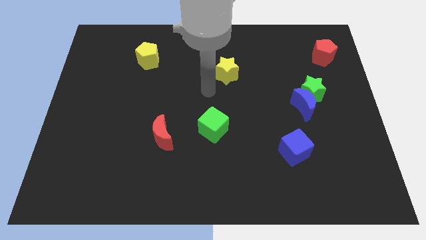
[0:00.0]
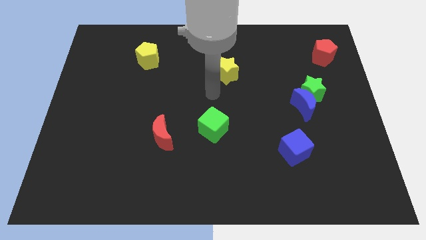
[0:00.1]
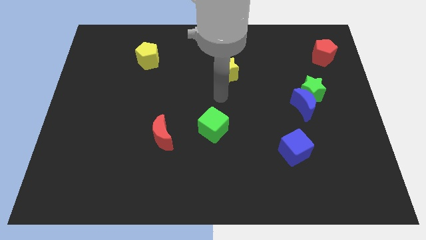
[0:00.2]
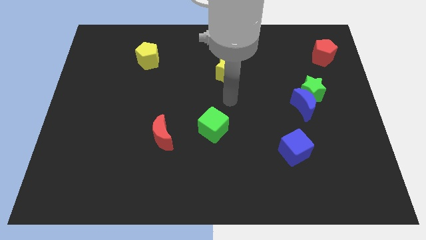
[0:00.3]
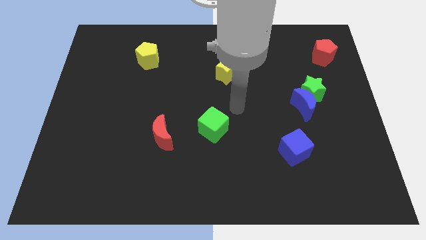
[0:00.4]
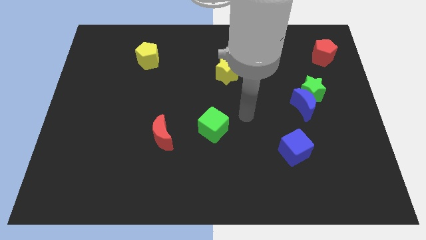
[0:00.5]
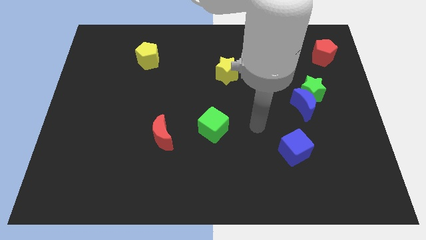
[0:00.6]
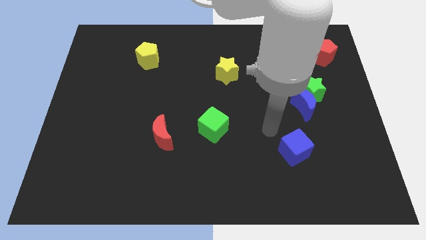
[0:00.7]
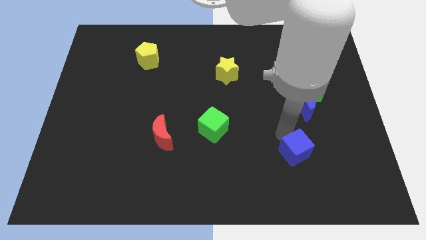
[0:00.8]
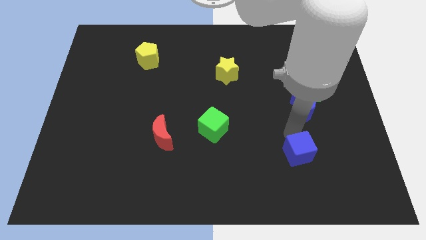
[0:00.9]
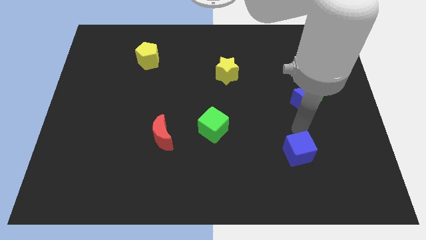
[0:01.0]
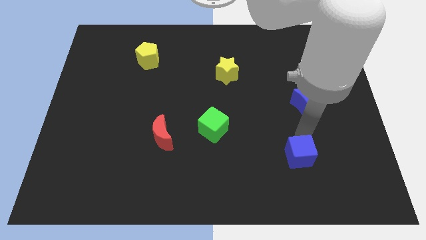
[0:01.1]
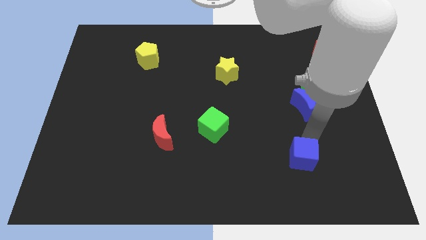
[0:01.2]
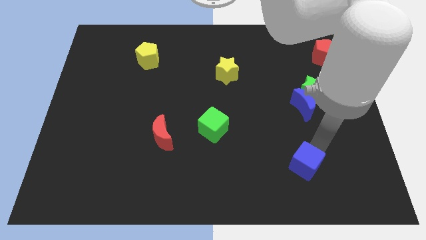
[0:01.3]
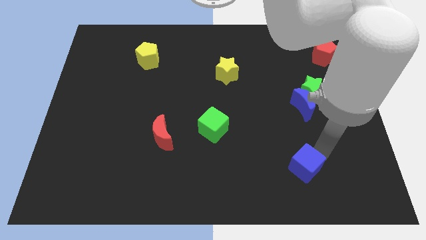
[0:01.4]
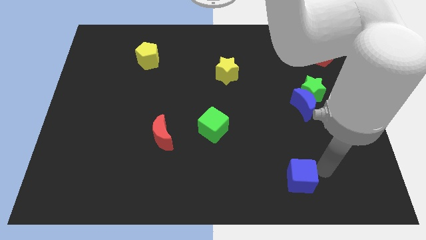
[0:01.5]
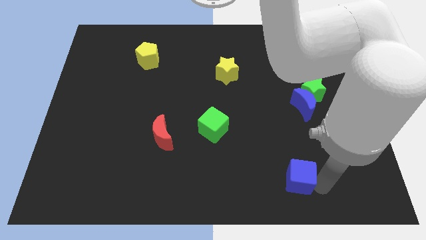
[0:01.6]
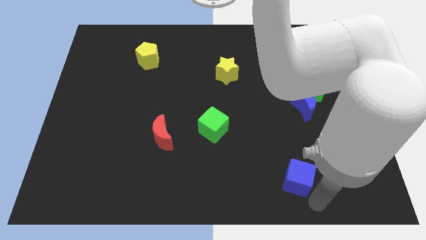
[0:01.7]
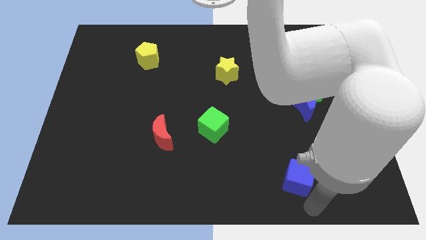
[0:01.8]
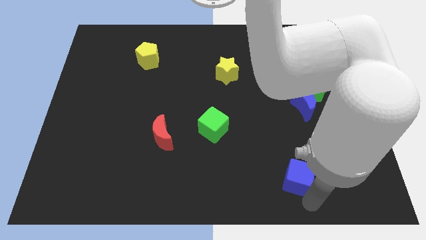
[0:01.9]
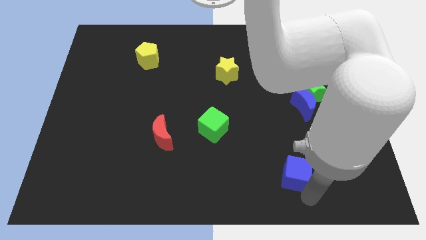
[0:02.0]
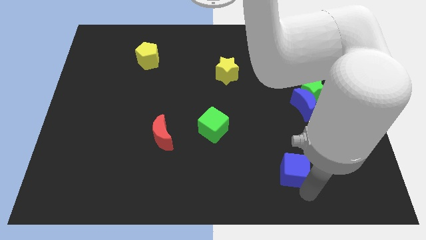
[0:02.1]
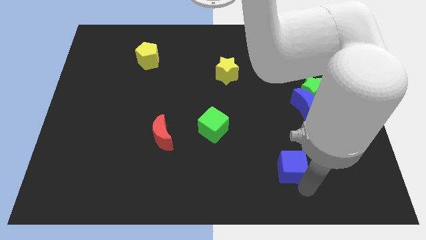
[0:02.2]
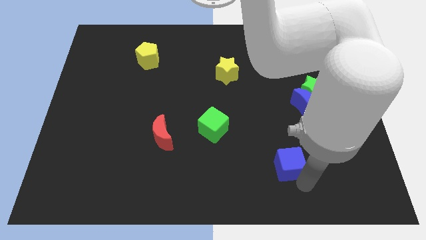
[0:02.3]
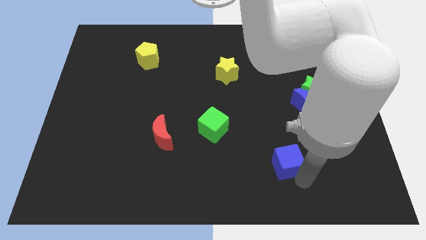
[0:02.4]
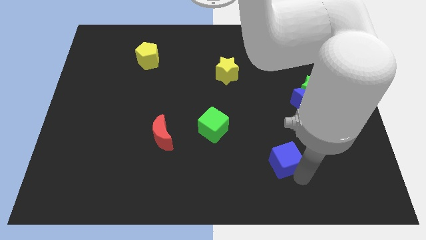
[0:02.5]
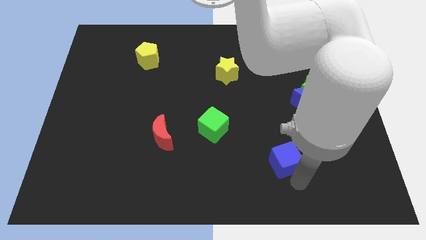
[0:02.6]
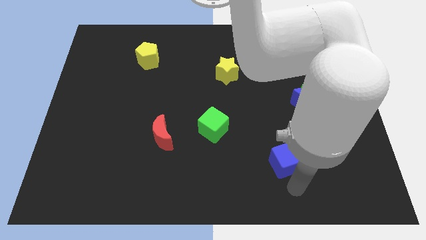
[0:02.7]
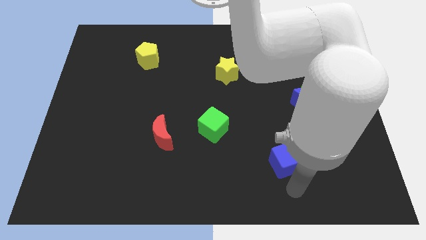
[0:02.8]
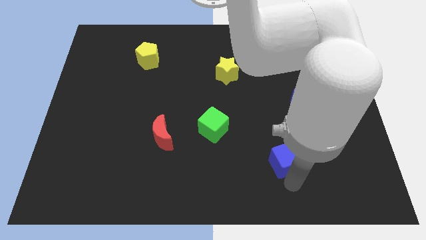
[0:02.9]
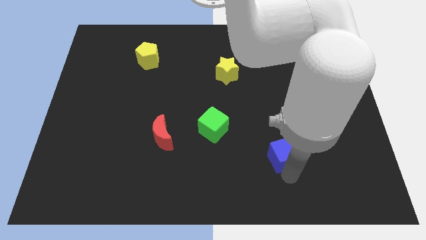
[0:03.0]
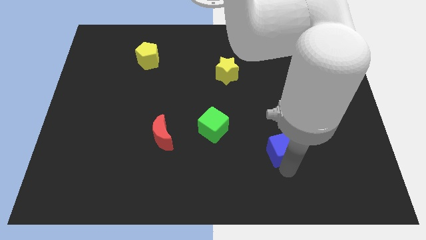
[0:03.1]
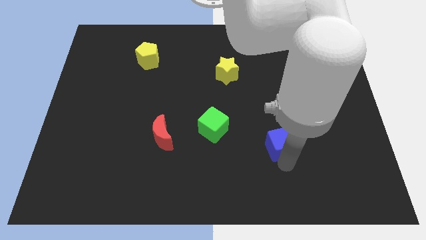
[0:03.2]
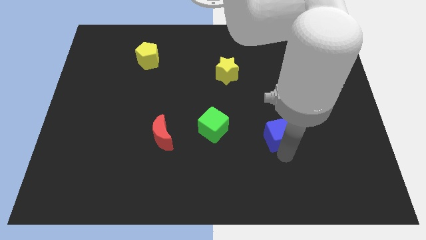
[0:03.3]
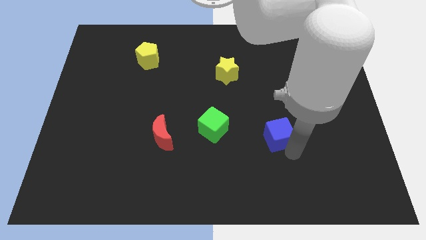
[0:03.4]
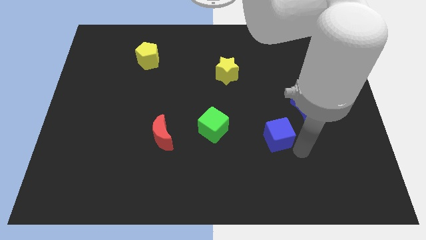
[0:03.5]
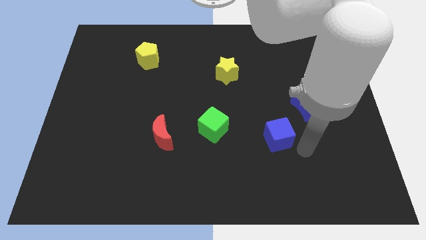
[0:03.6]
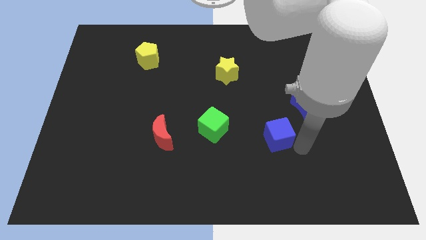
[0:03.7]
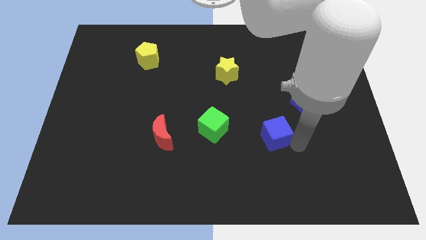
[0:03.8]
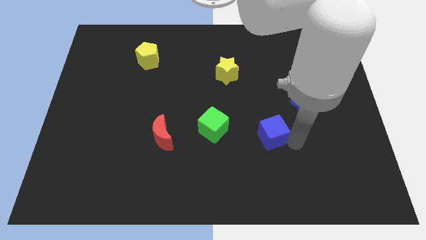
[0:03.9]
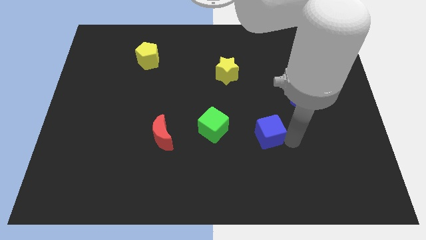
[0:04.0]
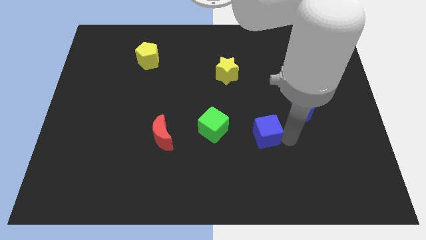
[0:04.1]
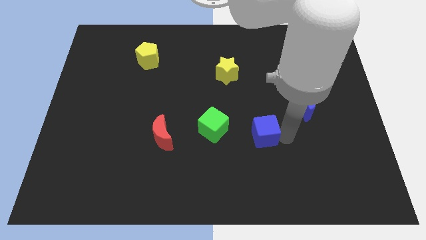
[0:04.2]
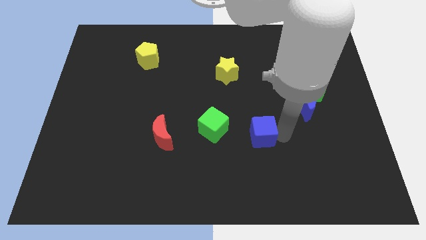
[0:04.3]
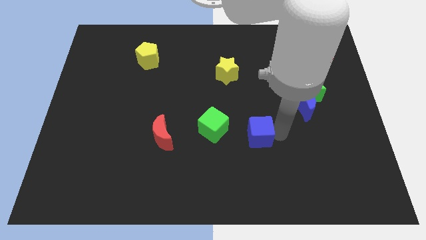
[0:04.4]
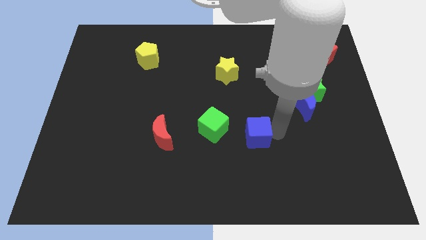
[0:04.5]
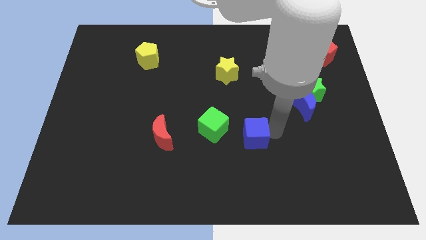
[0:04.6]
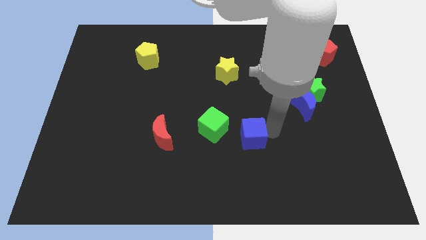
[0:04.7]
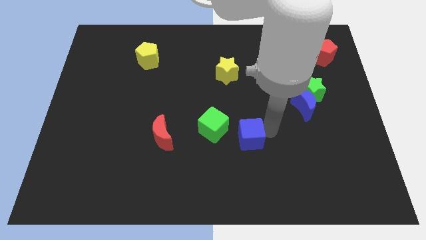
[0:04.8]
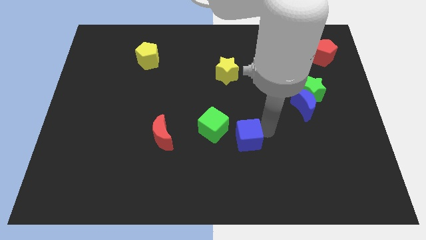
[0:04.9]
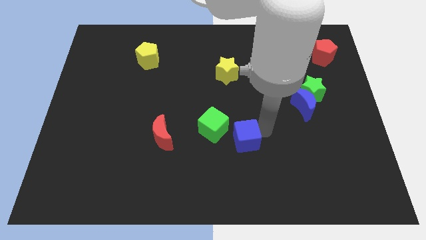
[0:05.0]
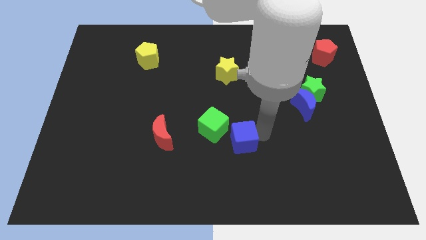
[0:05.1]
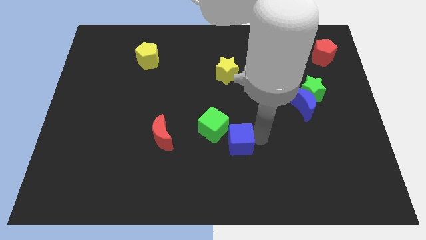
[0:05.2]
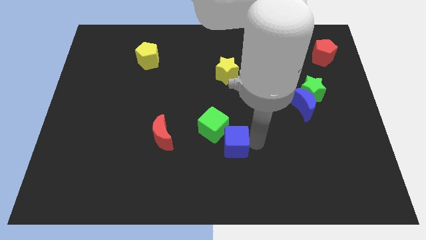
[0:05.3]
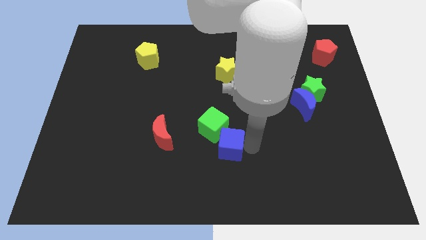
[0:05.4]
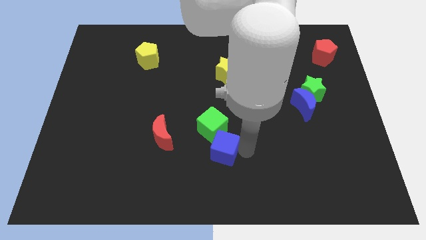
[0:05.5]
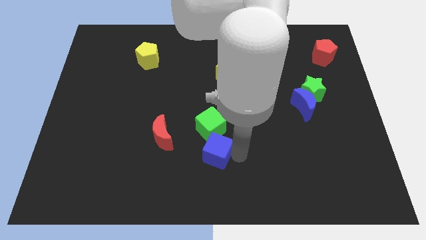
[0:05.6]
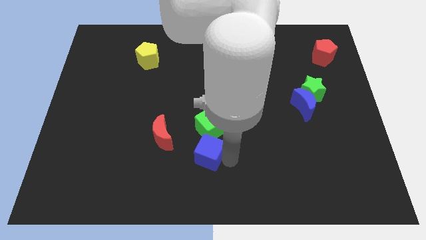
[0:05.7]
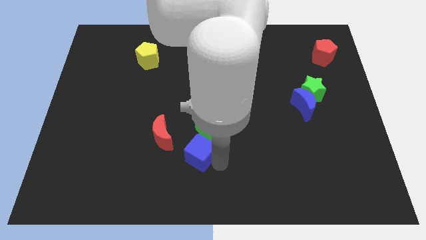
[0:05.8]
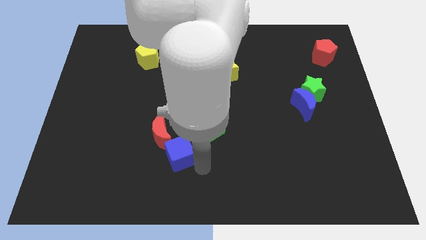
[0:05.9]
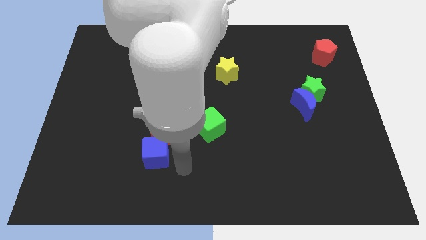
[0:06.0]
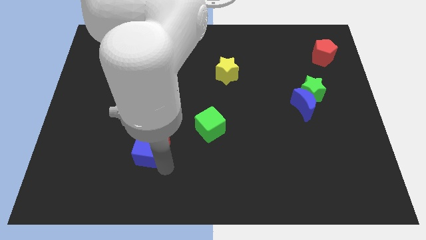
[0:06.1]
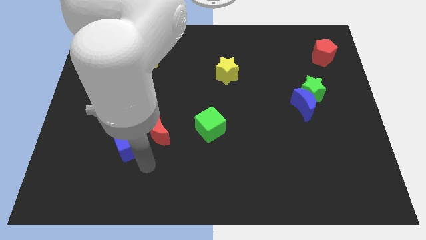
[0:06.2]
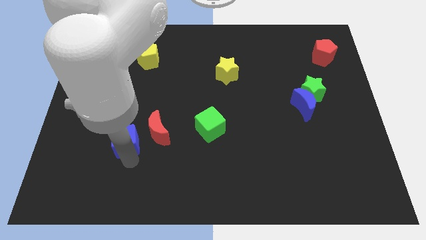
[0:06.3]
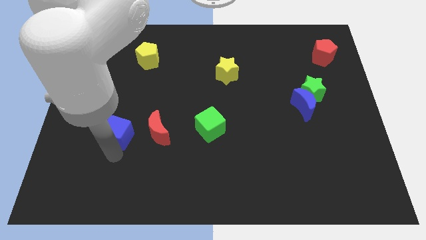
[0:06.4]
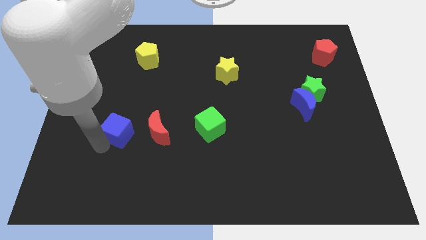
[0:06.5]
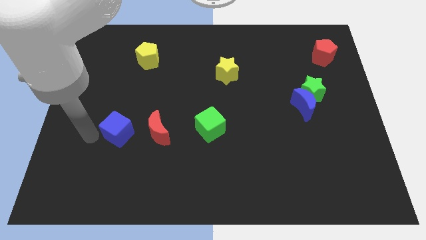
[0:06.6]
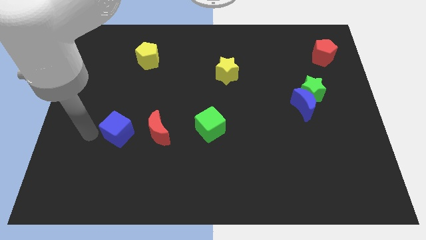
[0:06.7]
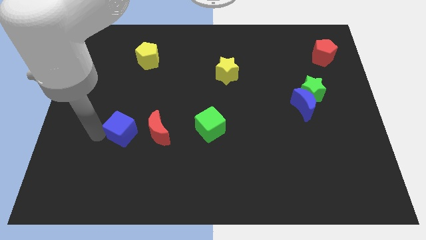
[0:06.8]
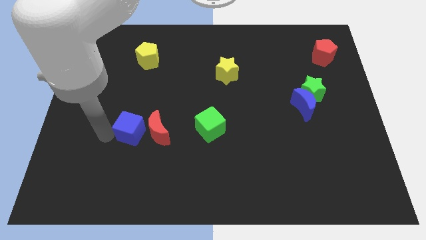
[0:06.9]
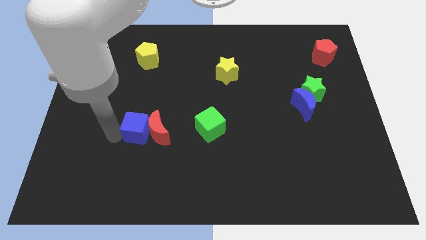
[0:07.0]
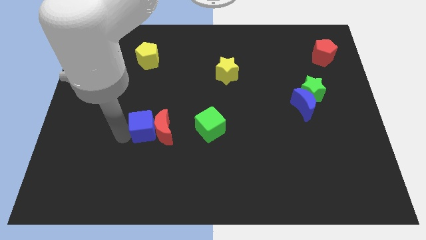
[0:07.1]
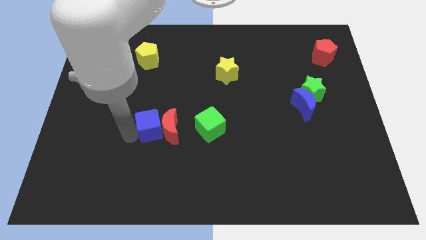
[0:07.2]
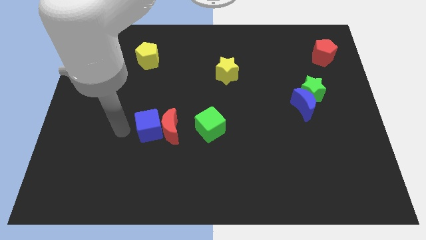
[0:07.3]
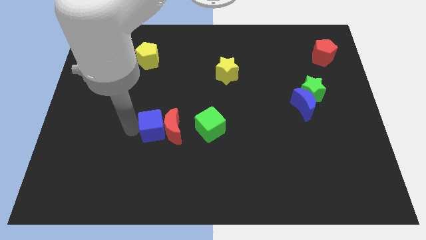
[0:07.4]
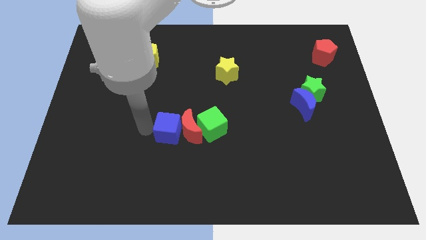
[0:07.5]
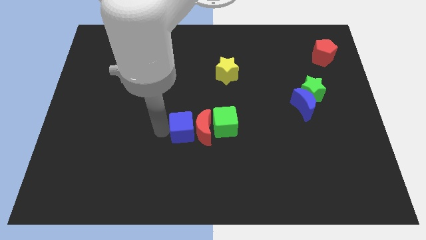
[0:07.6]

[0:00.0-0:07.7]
put the blue cube to the middle
